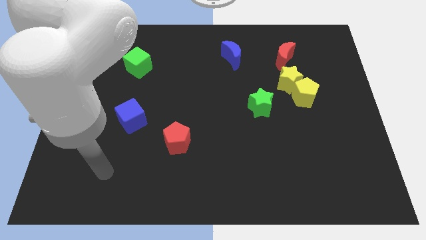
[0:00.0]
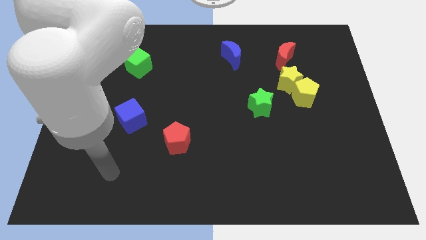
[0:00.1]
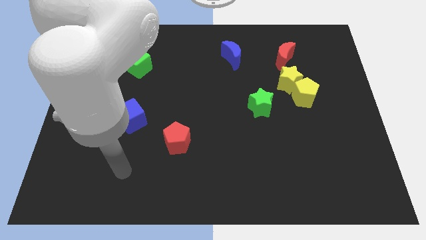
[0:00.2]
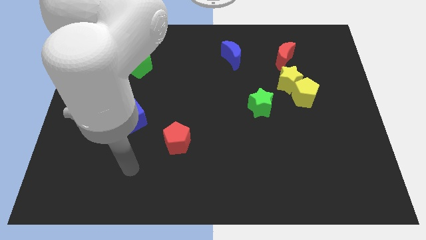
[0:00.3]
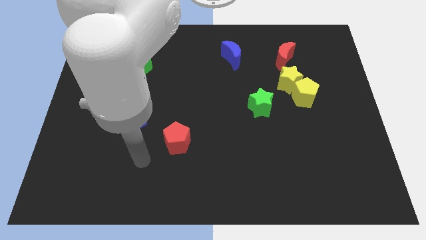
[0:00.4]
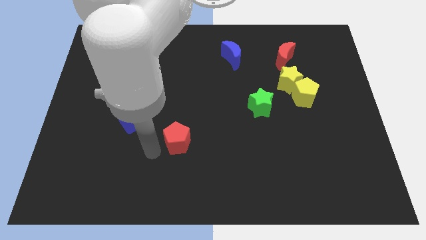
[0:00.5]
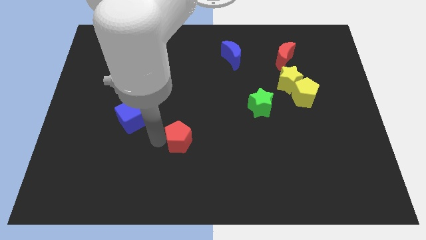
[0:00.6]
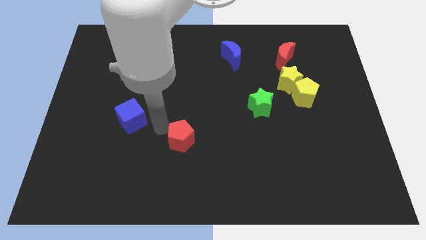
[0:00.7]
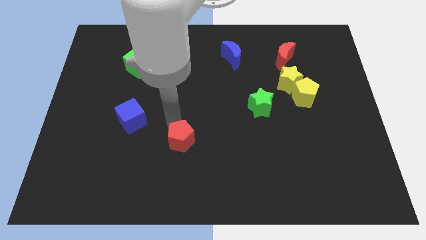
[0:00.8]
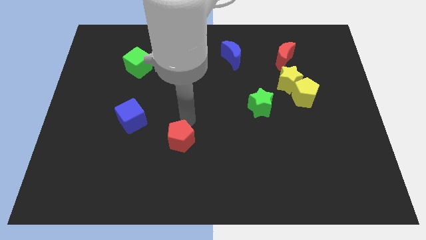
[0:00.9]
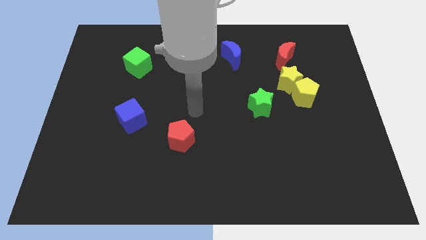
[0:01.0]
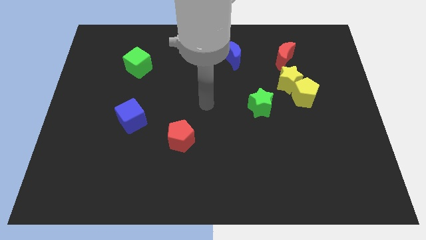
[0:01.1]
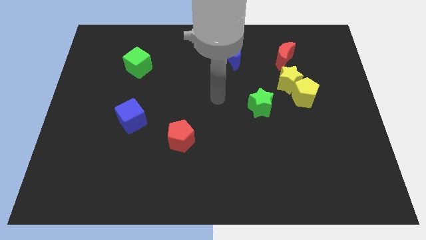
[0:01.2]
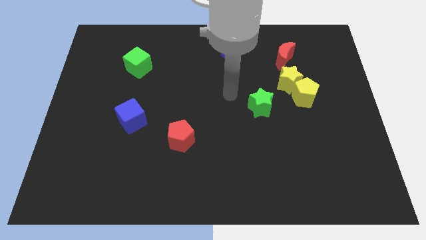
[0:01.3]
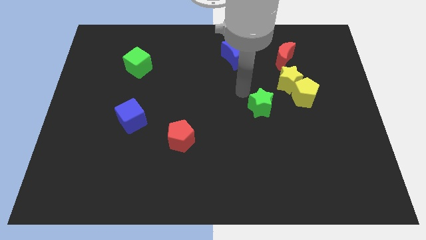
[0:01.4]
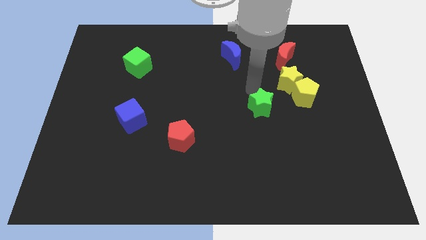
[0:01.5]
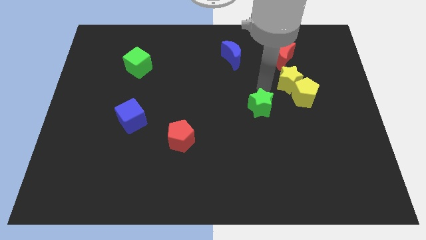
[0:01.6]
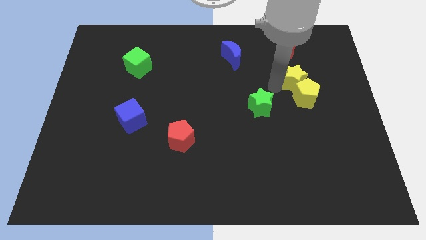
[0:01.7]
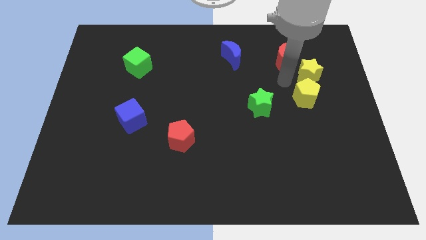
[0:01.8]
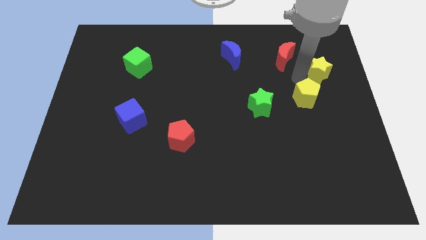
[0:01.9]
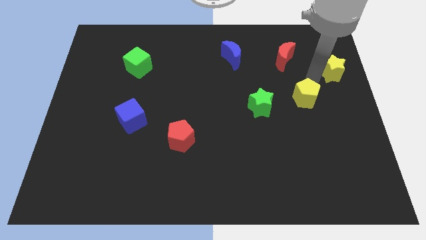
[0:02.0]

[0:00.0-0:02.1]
separate the yellow pentagon from the yellow star

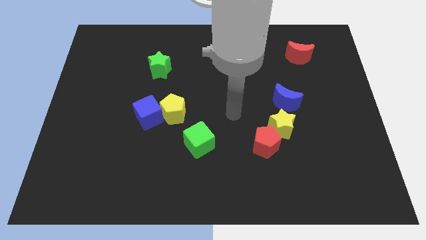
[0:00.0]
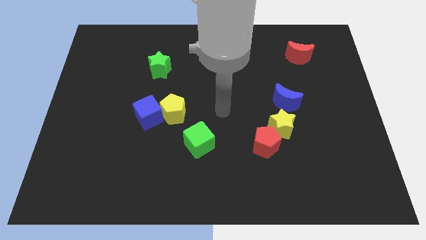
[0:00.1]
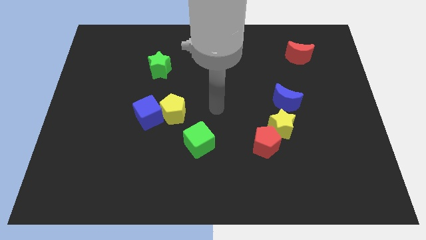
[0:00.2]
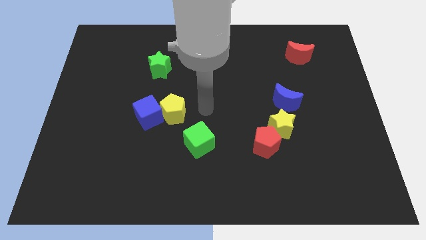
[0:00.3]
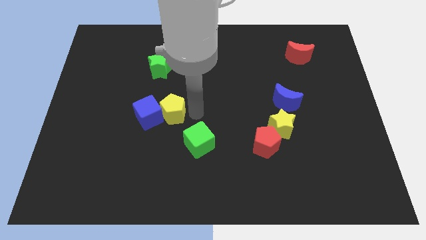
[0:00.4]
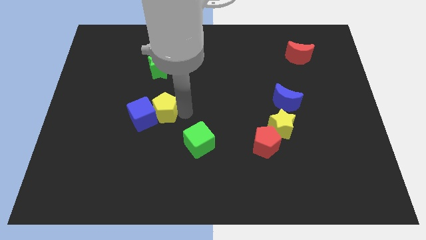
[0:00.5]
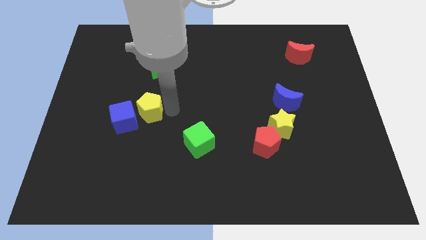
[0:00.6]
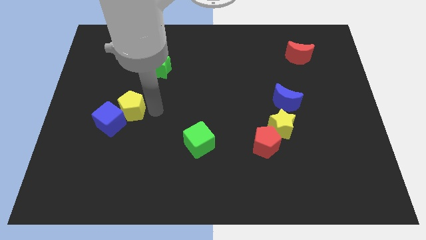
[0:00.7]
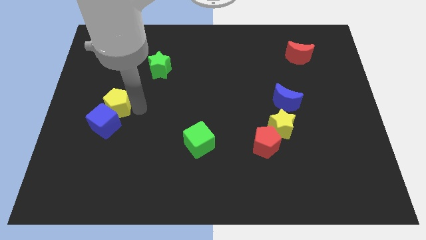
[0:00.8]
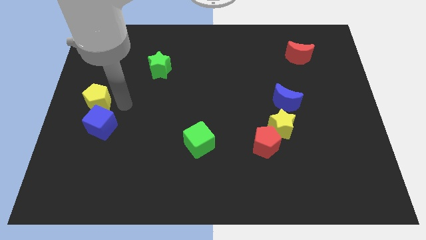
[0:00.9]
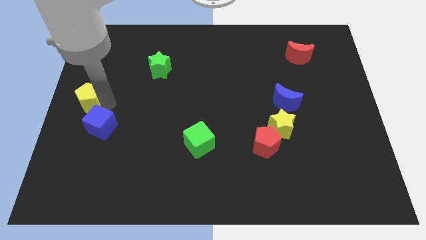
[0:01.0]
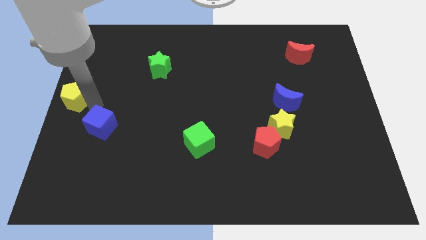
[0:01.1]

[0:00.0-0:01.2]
move the blue cube away from the yellow pentagon

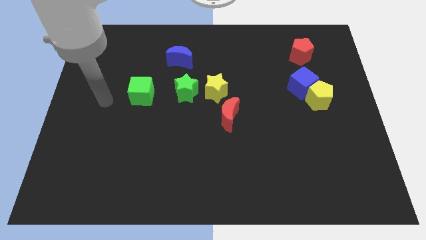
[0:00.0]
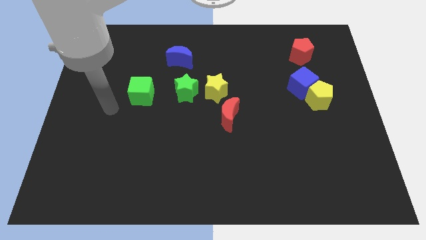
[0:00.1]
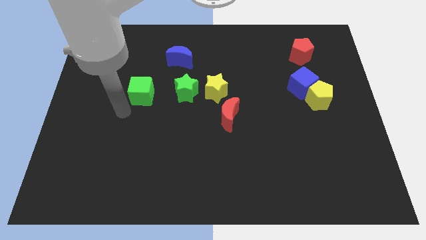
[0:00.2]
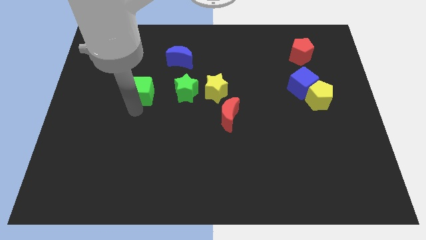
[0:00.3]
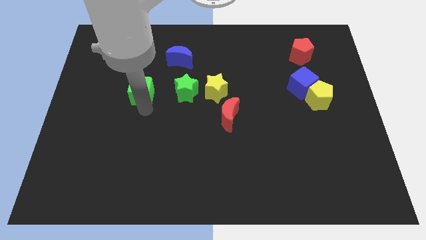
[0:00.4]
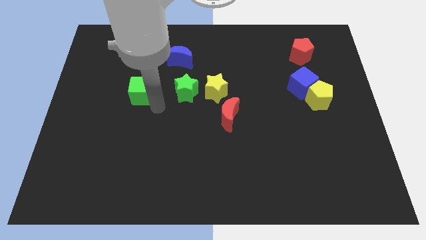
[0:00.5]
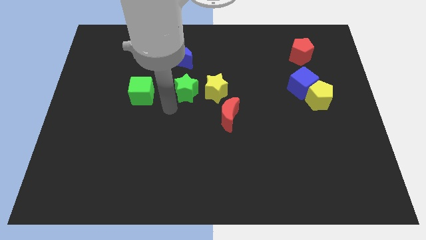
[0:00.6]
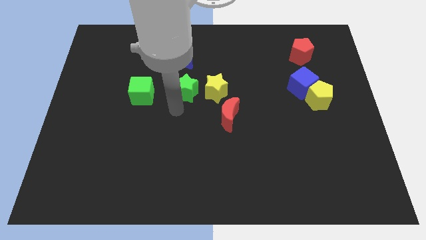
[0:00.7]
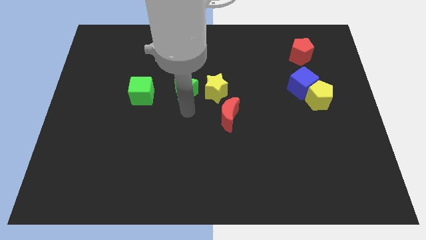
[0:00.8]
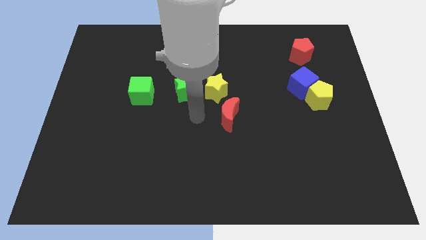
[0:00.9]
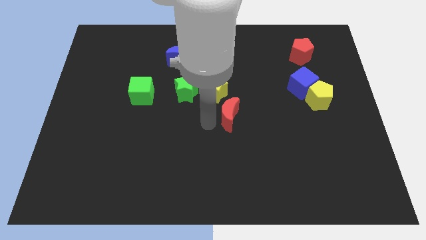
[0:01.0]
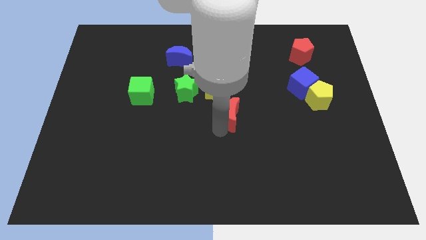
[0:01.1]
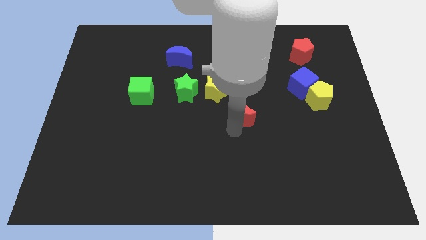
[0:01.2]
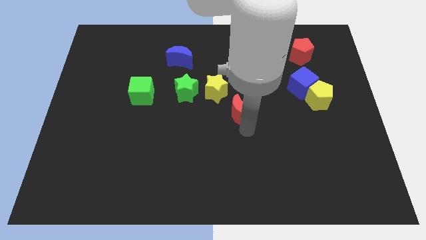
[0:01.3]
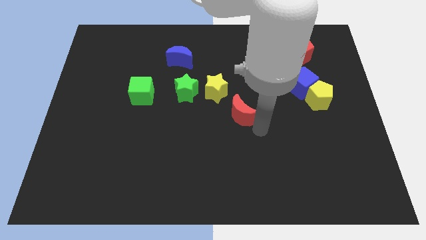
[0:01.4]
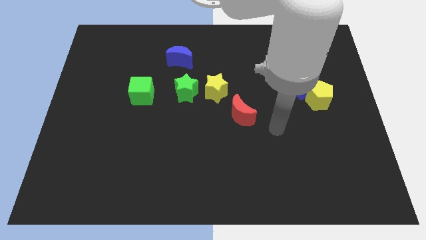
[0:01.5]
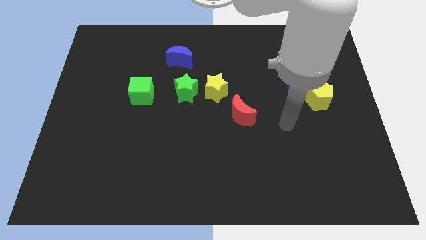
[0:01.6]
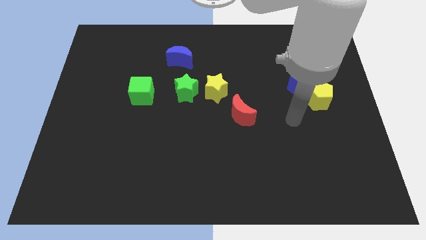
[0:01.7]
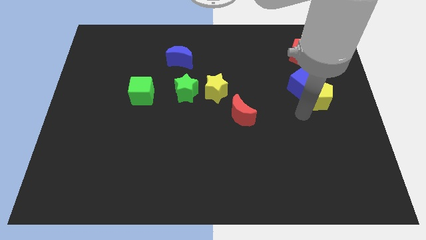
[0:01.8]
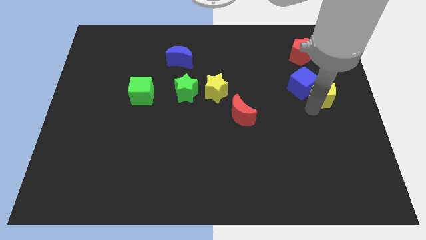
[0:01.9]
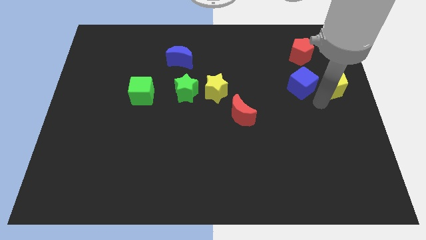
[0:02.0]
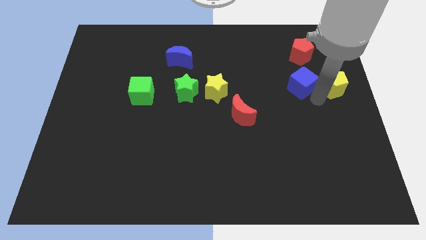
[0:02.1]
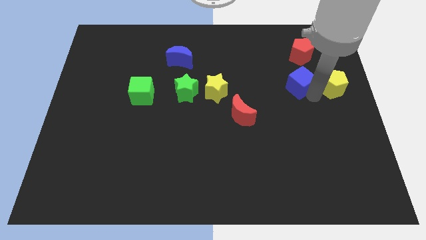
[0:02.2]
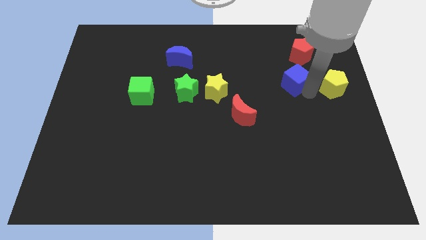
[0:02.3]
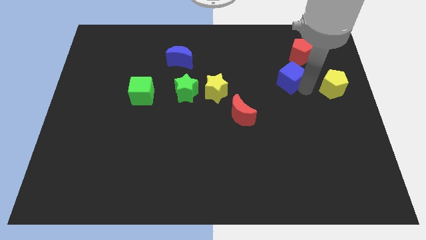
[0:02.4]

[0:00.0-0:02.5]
separate the blue cube from the yellow pentagon

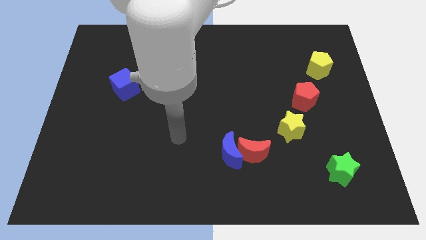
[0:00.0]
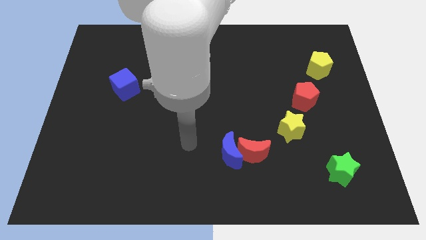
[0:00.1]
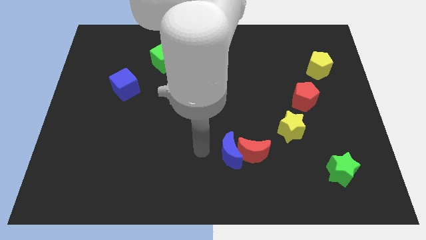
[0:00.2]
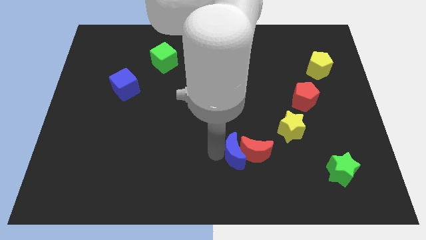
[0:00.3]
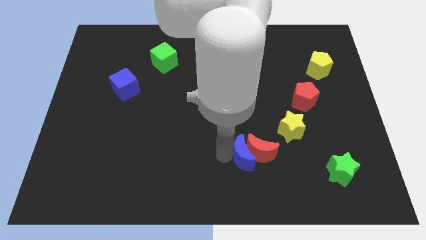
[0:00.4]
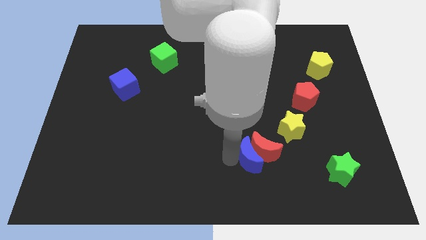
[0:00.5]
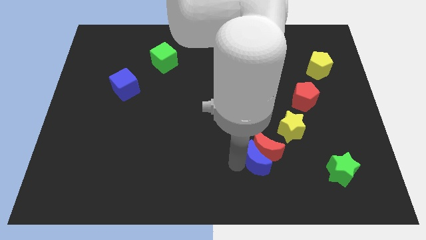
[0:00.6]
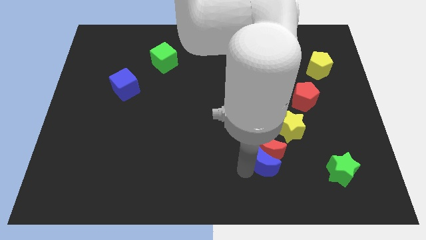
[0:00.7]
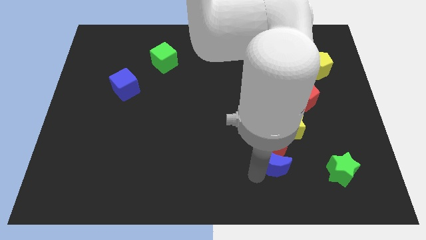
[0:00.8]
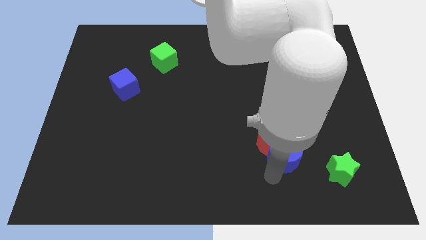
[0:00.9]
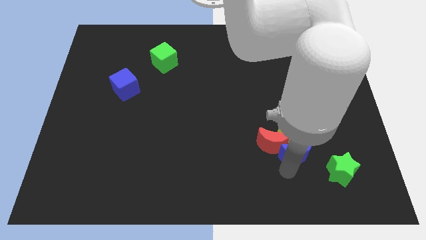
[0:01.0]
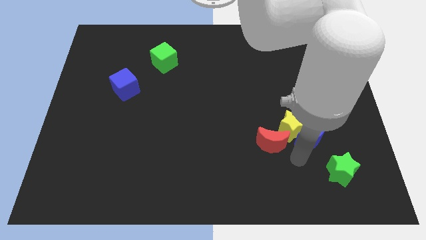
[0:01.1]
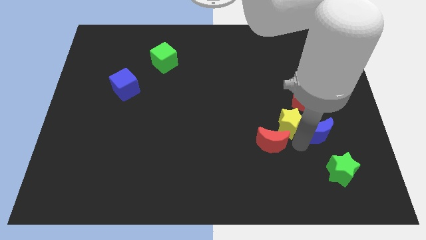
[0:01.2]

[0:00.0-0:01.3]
separate the red moon from the blue moon

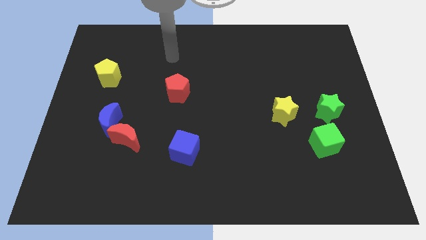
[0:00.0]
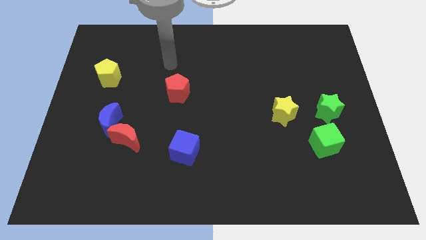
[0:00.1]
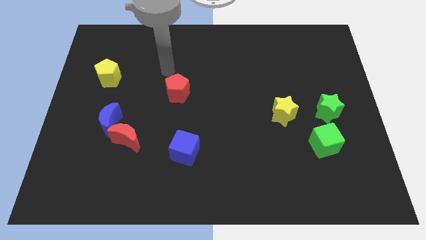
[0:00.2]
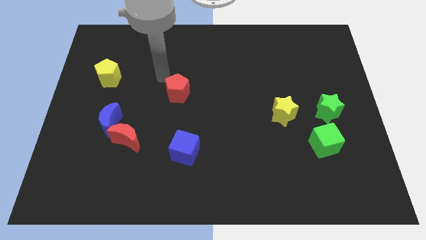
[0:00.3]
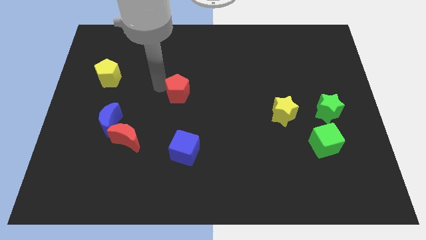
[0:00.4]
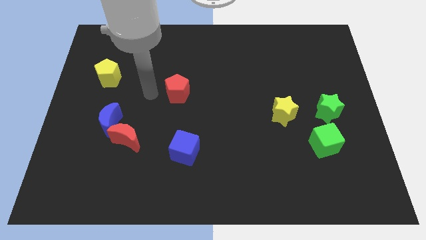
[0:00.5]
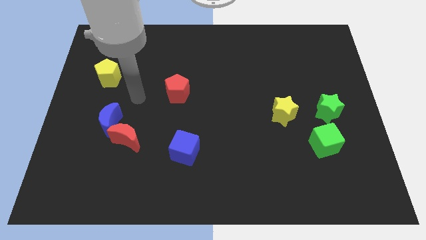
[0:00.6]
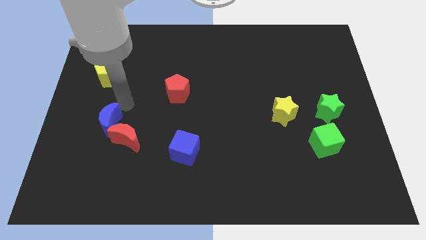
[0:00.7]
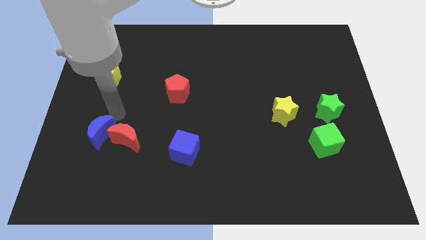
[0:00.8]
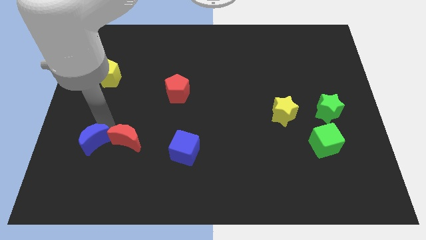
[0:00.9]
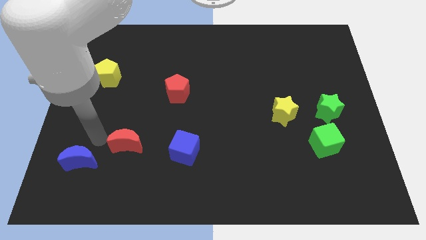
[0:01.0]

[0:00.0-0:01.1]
pull the red moon apart from the blue moon

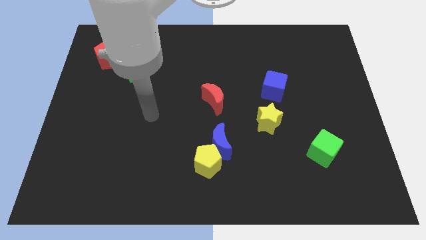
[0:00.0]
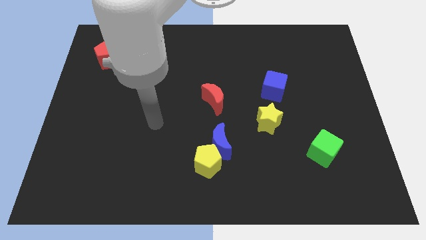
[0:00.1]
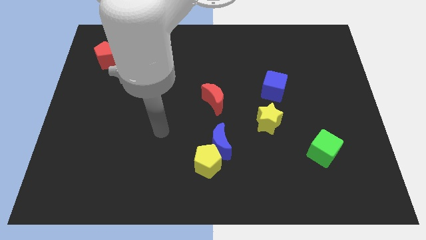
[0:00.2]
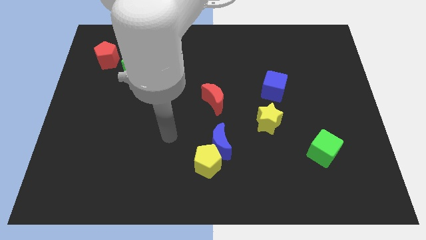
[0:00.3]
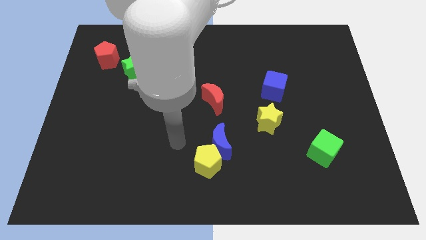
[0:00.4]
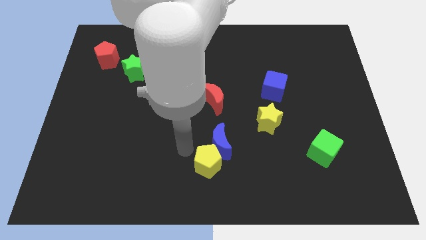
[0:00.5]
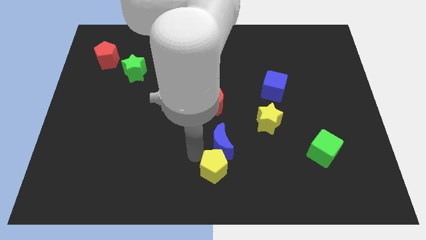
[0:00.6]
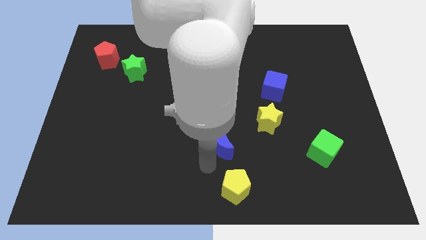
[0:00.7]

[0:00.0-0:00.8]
move the blue moon away from the yellow pentagon

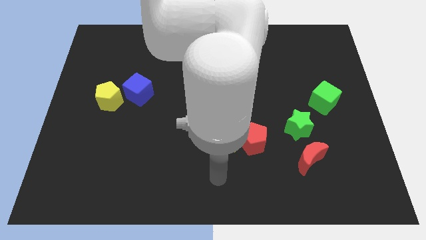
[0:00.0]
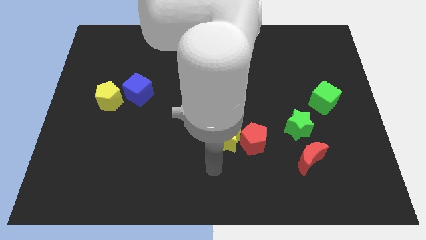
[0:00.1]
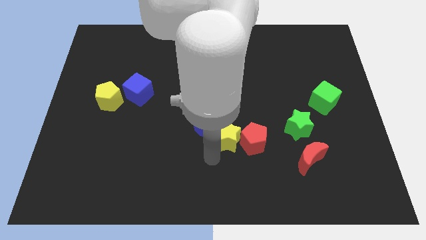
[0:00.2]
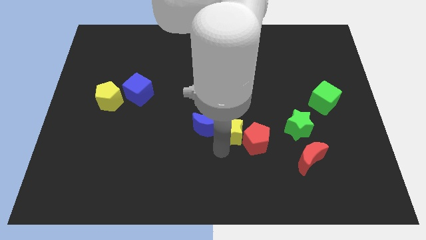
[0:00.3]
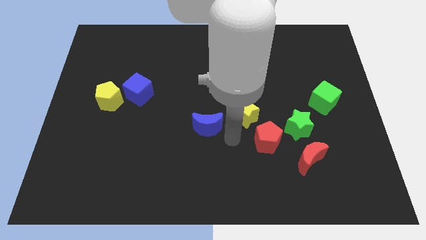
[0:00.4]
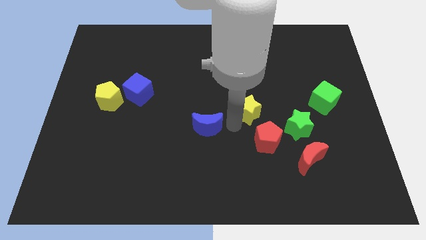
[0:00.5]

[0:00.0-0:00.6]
separate the blue moon from the yellow star
